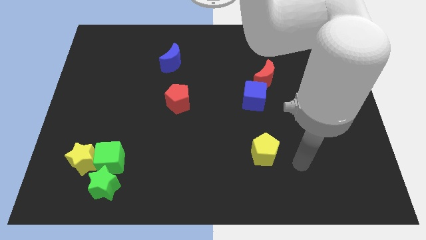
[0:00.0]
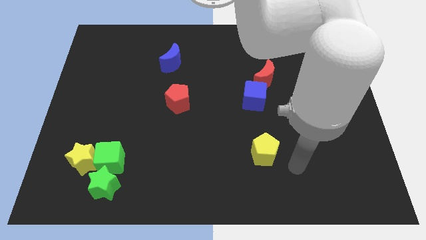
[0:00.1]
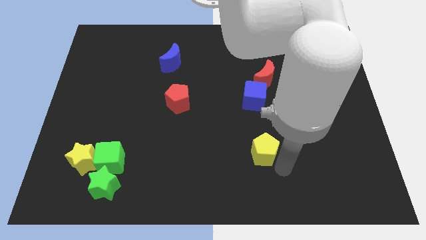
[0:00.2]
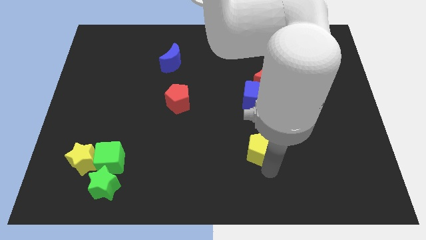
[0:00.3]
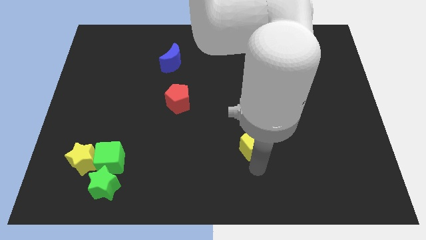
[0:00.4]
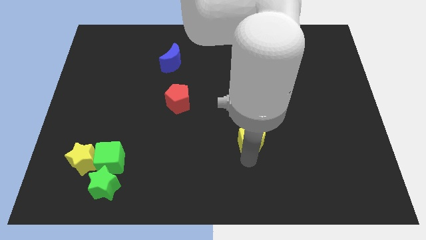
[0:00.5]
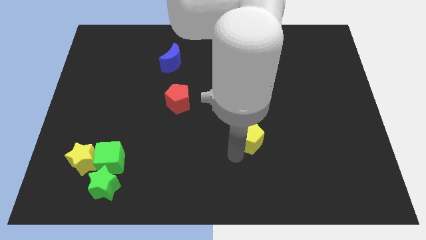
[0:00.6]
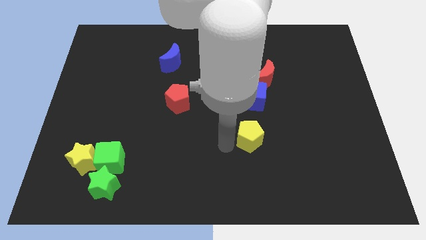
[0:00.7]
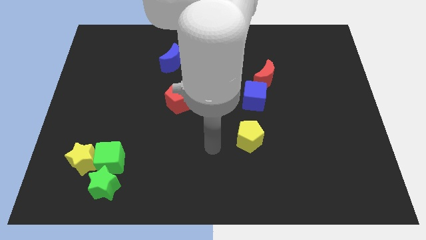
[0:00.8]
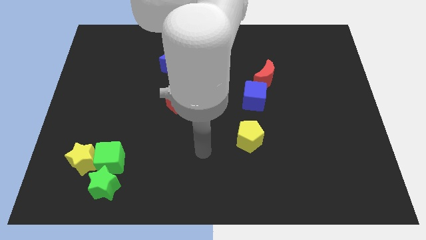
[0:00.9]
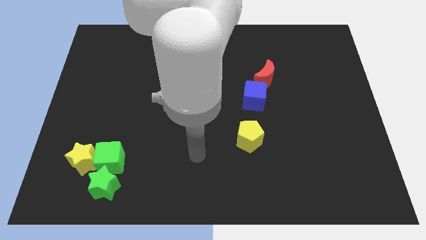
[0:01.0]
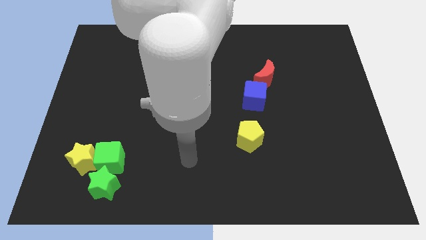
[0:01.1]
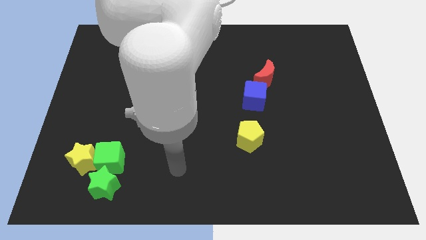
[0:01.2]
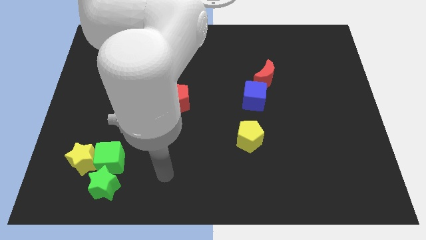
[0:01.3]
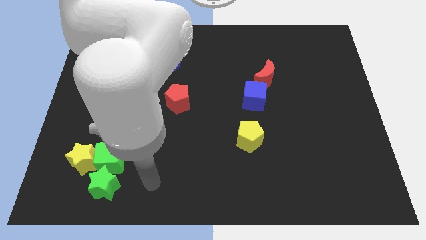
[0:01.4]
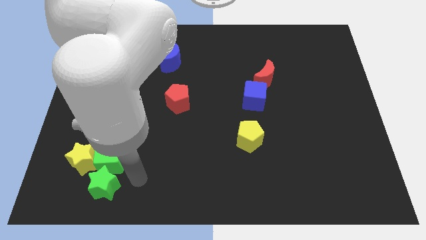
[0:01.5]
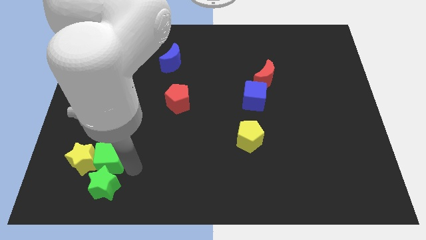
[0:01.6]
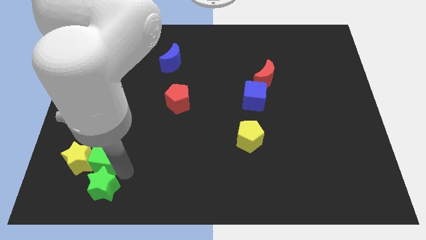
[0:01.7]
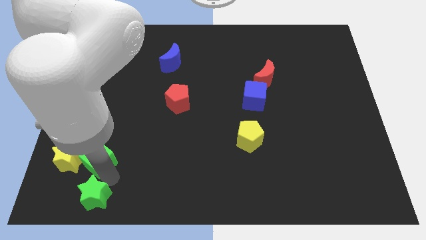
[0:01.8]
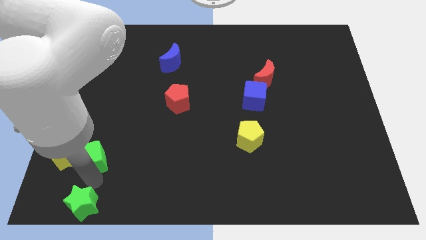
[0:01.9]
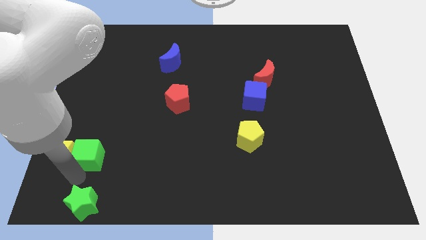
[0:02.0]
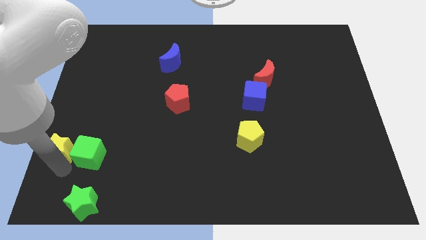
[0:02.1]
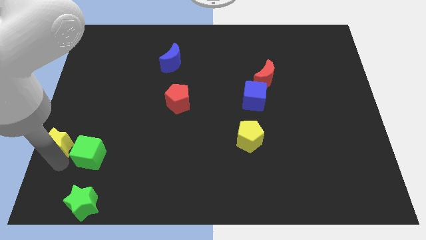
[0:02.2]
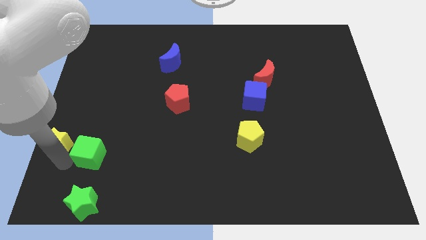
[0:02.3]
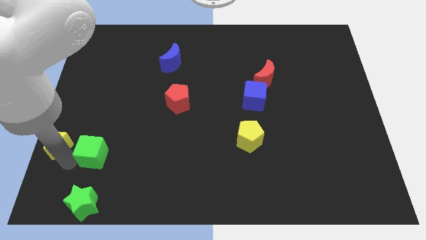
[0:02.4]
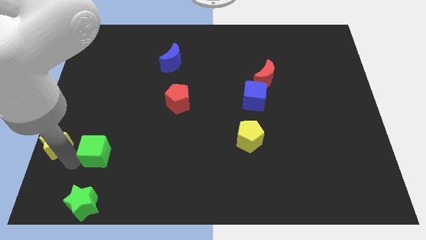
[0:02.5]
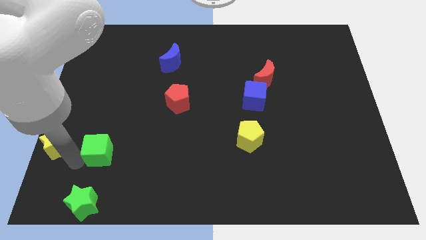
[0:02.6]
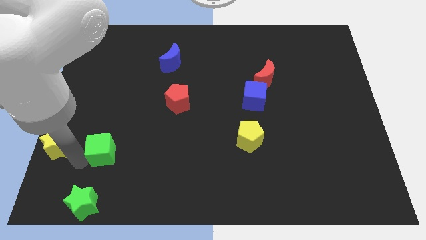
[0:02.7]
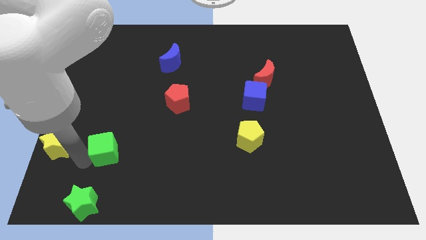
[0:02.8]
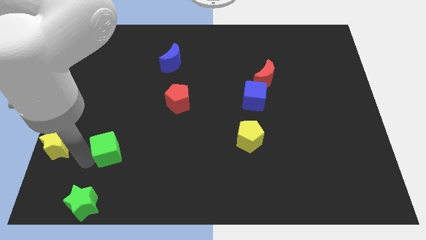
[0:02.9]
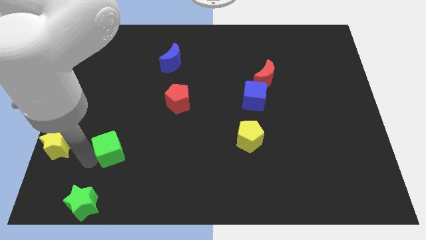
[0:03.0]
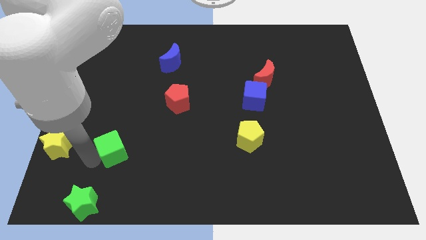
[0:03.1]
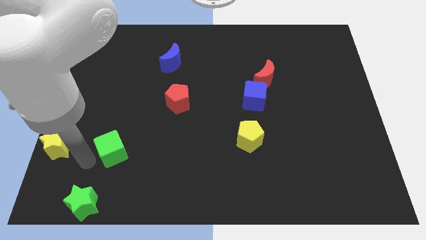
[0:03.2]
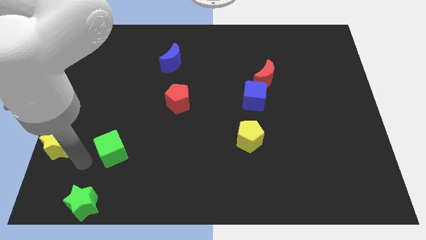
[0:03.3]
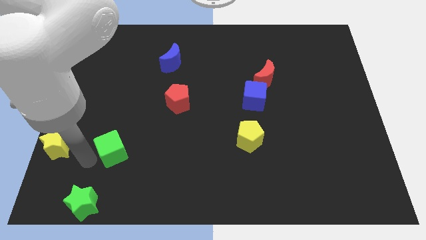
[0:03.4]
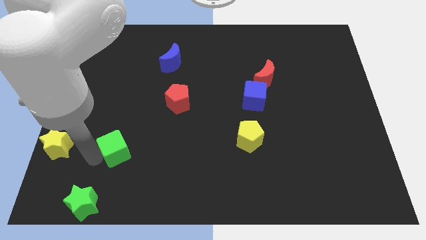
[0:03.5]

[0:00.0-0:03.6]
move the green cube away from the yellow star and green star

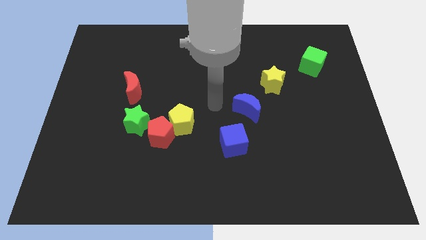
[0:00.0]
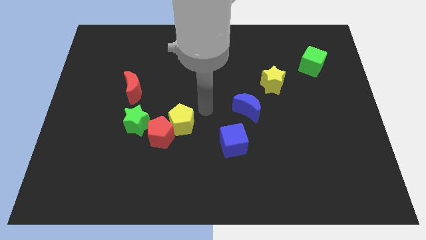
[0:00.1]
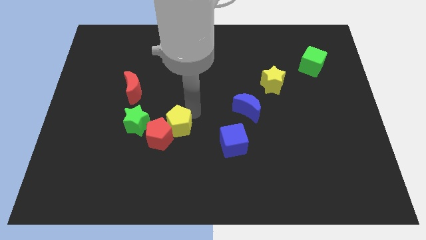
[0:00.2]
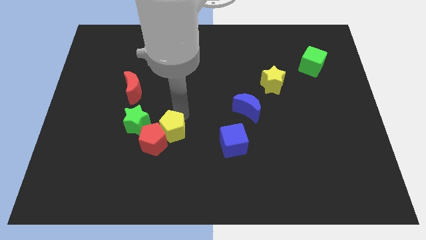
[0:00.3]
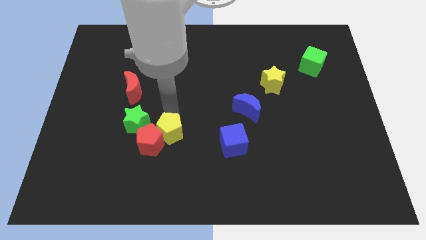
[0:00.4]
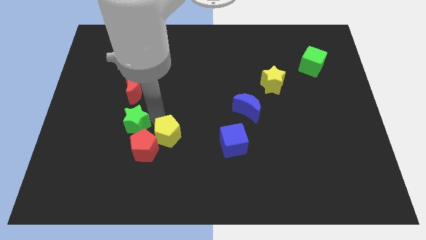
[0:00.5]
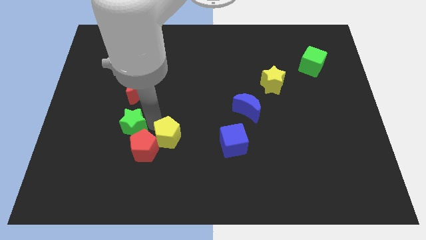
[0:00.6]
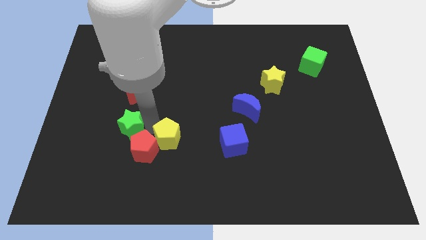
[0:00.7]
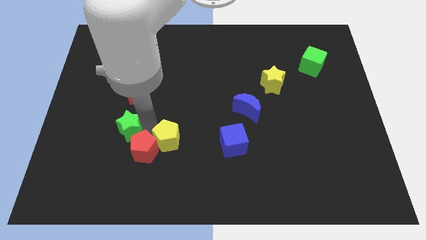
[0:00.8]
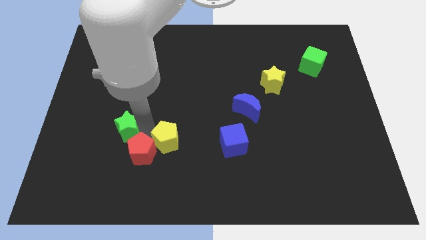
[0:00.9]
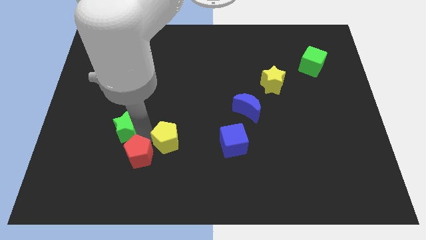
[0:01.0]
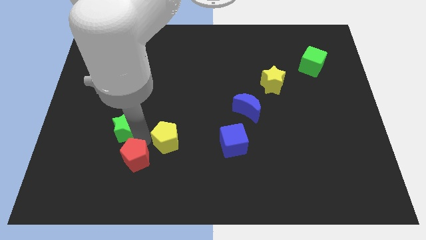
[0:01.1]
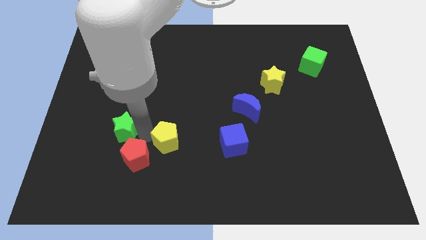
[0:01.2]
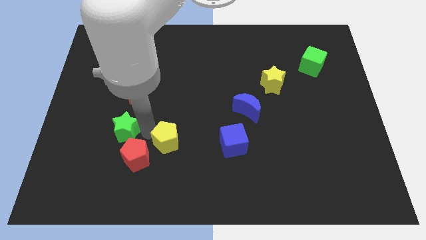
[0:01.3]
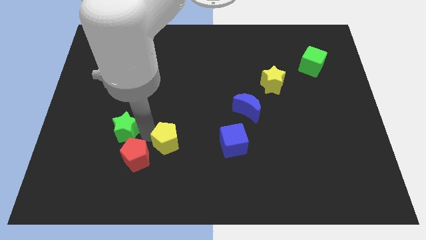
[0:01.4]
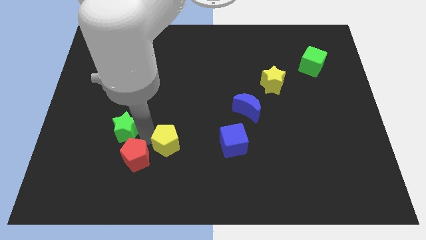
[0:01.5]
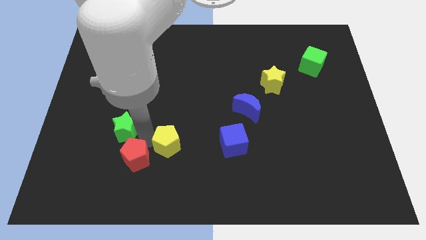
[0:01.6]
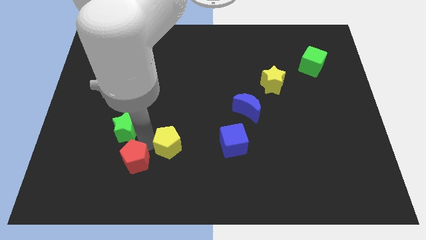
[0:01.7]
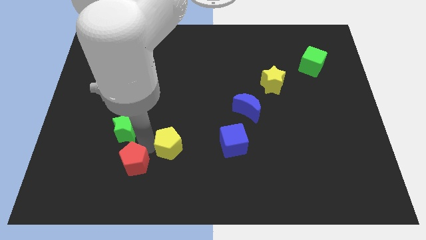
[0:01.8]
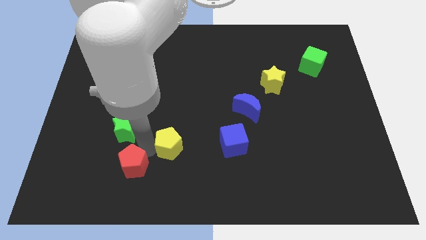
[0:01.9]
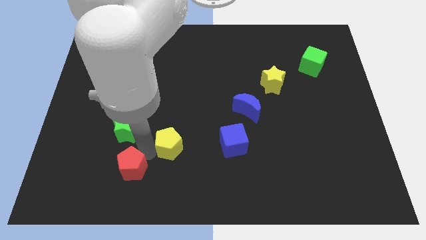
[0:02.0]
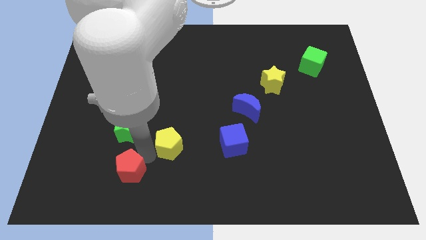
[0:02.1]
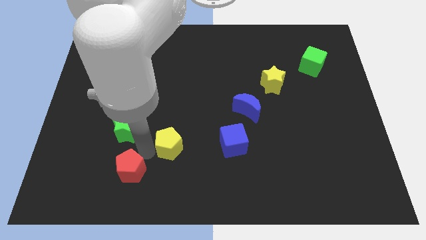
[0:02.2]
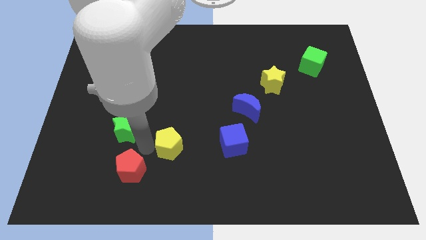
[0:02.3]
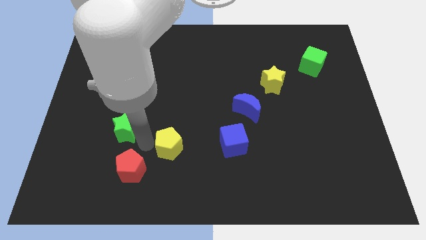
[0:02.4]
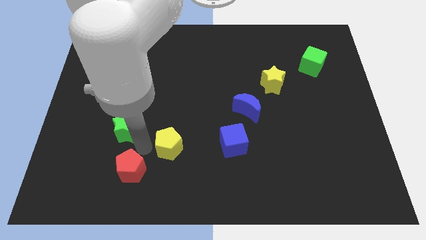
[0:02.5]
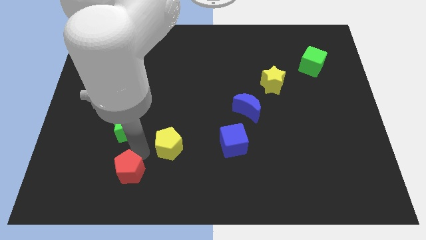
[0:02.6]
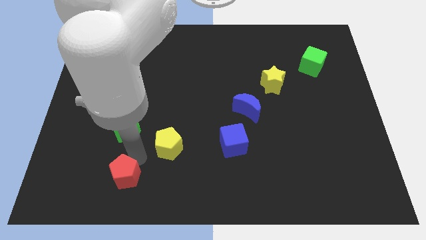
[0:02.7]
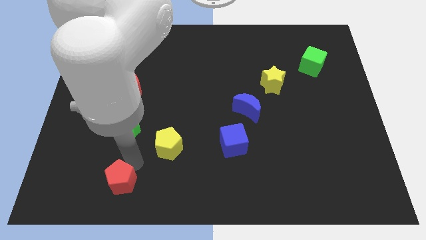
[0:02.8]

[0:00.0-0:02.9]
pull the red pentagon apart from the yellow pentagon and green star

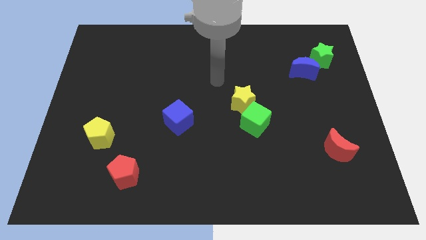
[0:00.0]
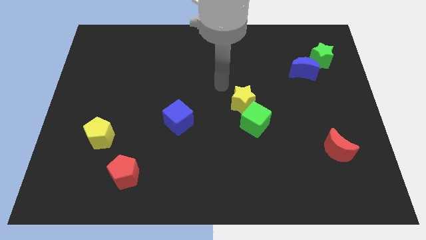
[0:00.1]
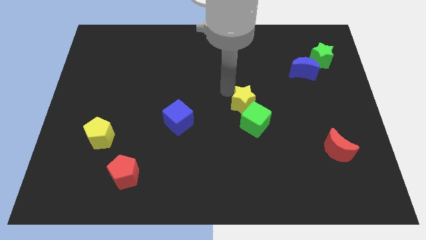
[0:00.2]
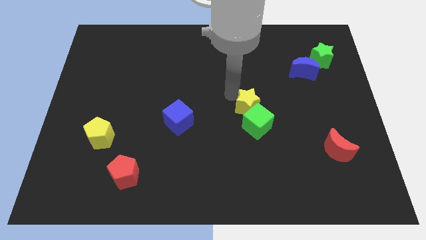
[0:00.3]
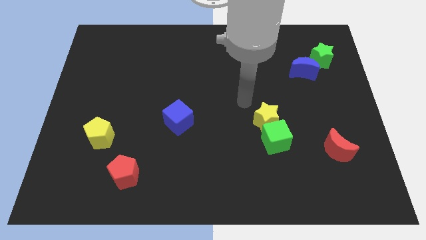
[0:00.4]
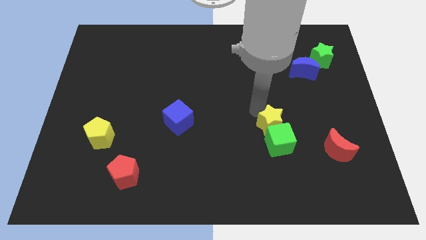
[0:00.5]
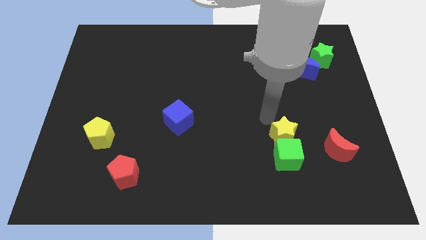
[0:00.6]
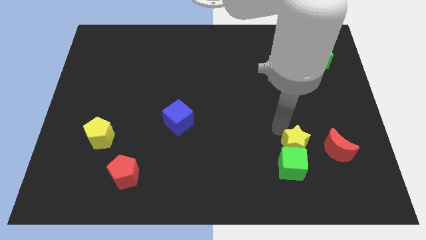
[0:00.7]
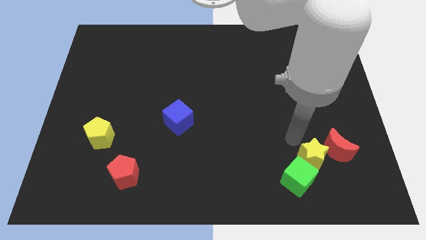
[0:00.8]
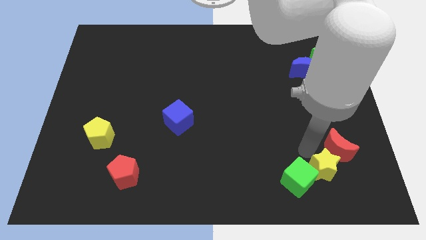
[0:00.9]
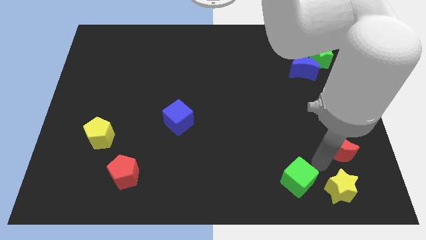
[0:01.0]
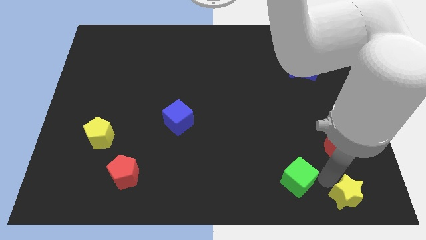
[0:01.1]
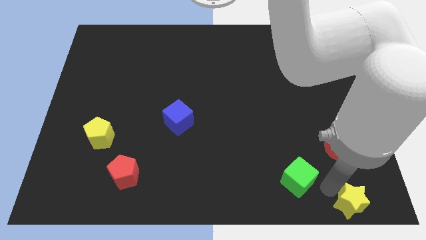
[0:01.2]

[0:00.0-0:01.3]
pull the green cube apart from the yellow star

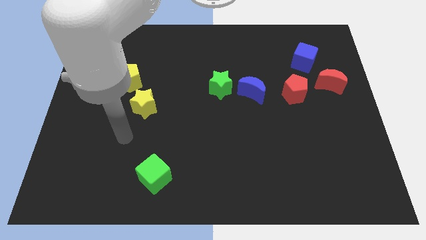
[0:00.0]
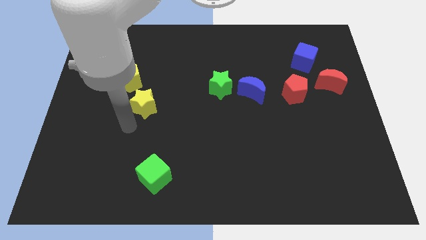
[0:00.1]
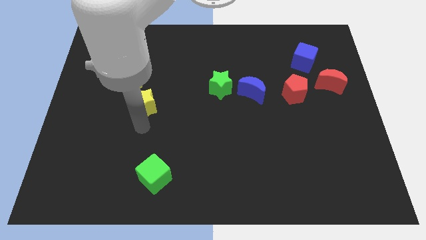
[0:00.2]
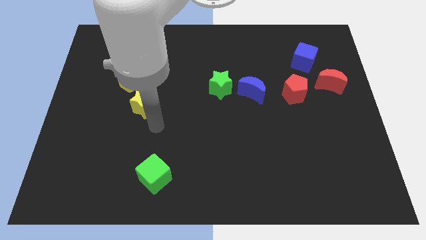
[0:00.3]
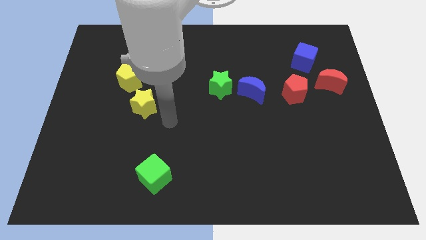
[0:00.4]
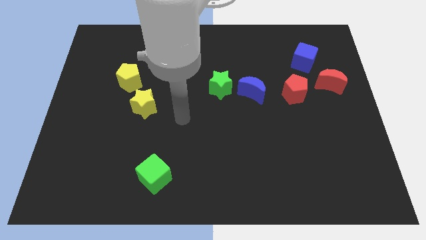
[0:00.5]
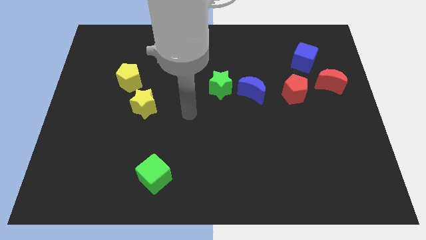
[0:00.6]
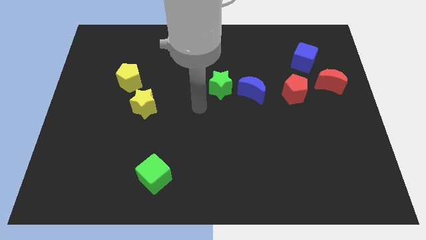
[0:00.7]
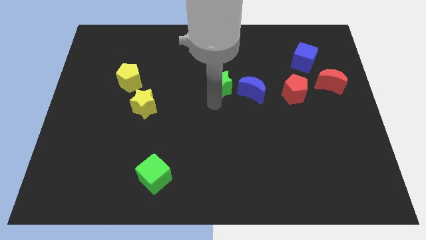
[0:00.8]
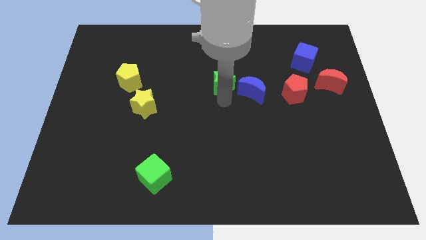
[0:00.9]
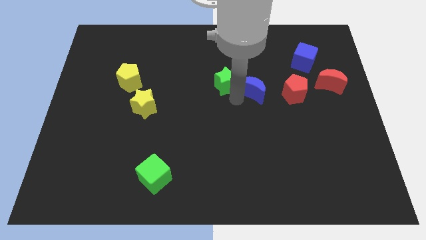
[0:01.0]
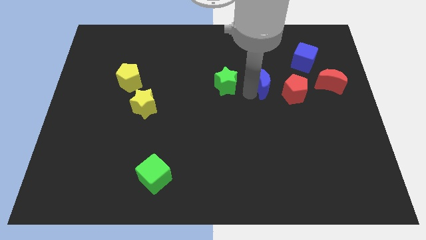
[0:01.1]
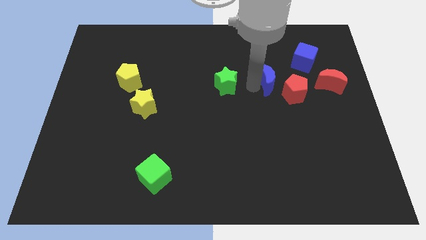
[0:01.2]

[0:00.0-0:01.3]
pull the green star apart from the blue moon

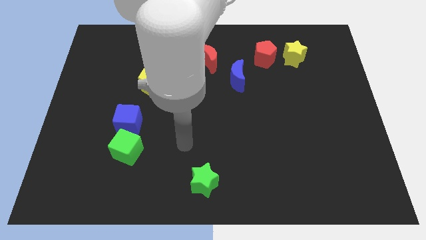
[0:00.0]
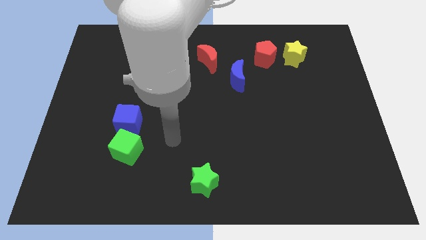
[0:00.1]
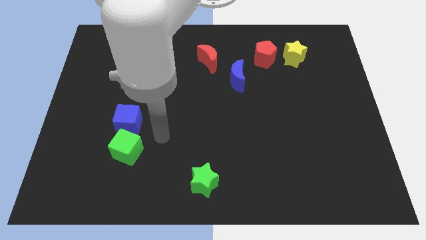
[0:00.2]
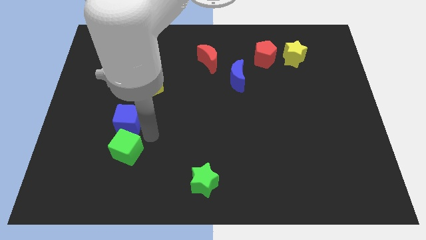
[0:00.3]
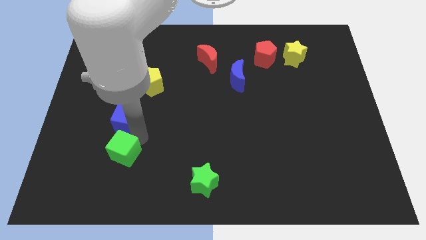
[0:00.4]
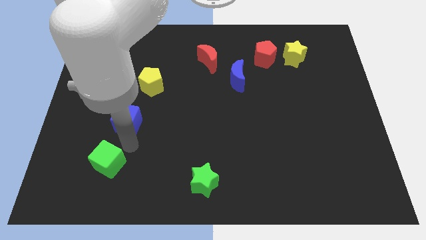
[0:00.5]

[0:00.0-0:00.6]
pull the blue cube apart from the green cube
